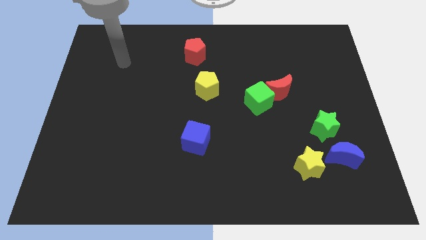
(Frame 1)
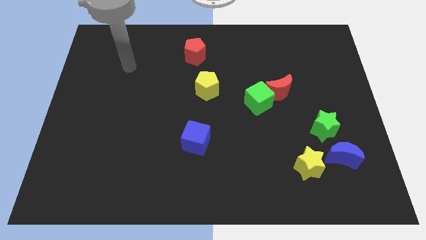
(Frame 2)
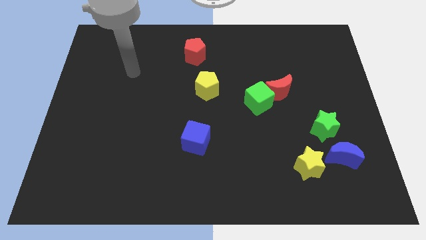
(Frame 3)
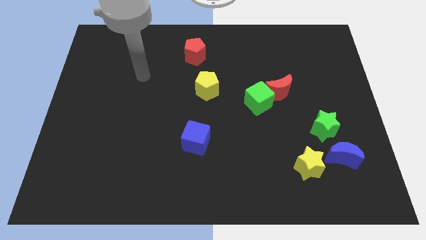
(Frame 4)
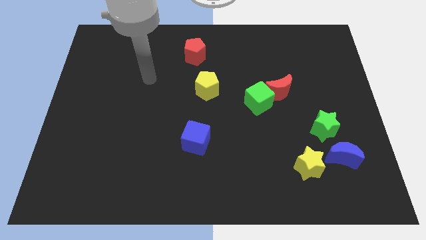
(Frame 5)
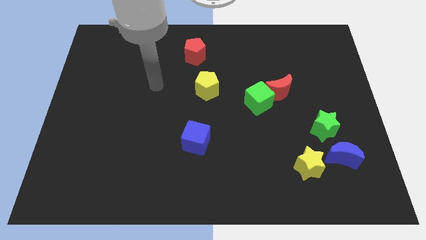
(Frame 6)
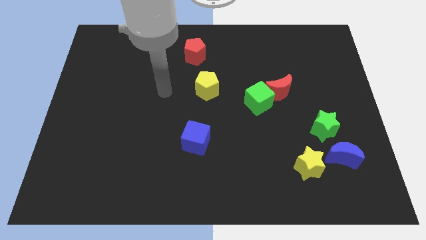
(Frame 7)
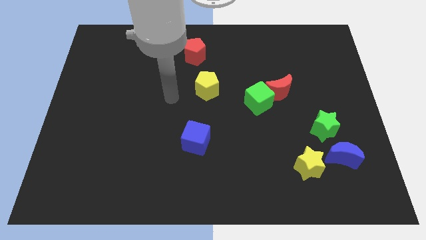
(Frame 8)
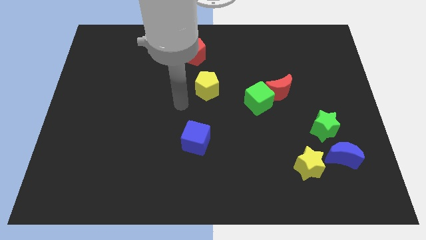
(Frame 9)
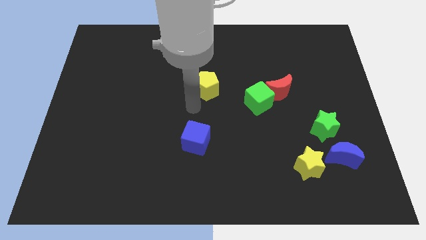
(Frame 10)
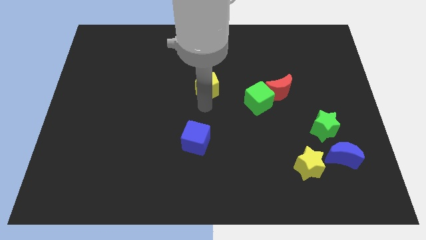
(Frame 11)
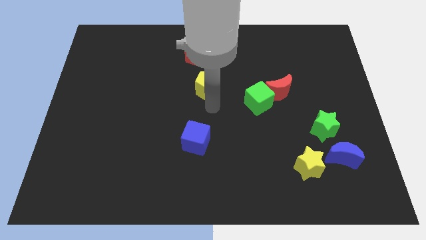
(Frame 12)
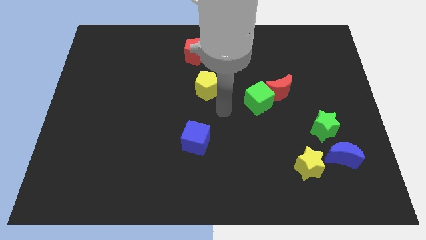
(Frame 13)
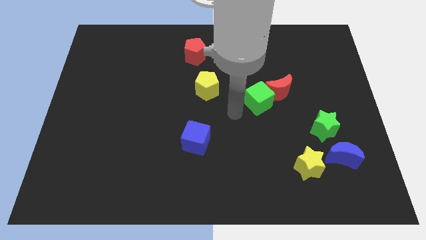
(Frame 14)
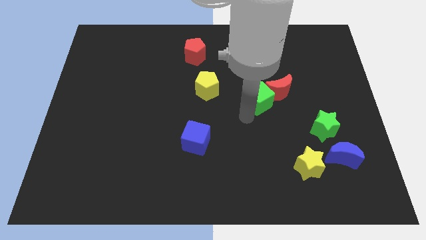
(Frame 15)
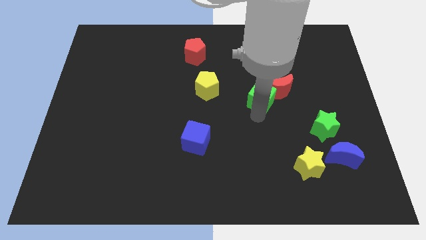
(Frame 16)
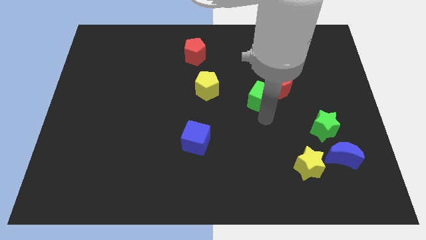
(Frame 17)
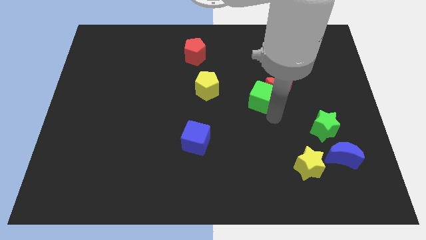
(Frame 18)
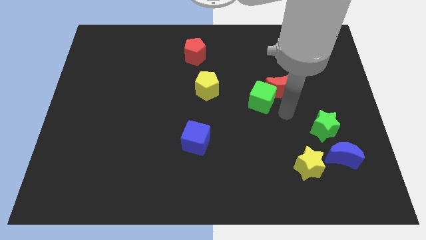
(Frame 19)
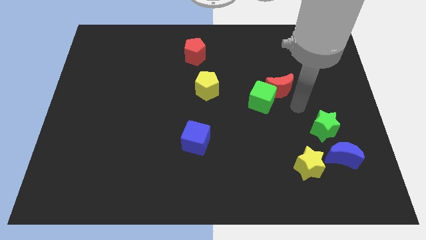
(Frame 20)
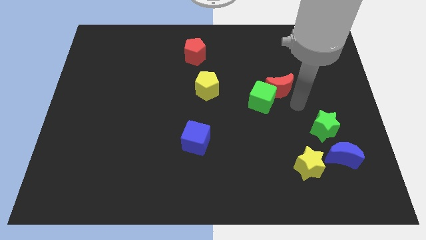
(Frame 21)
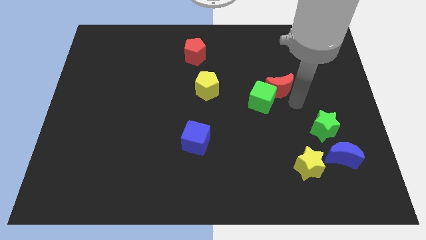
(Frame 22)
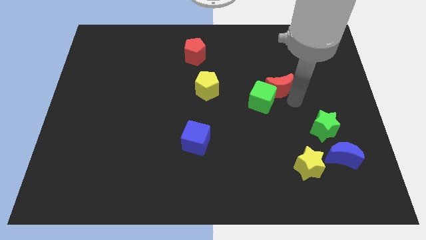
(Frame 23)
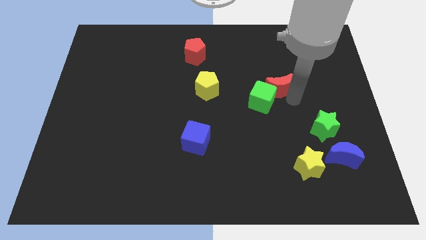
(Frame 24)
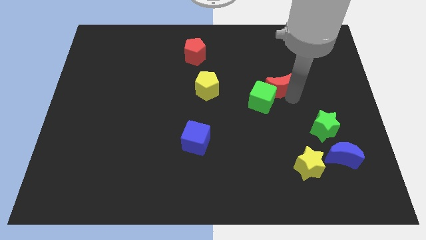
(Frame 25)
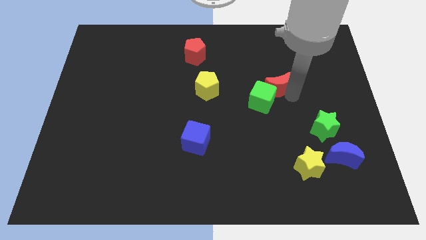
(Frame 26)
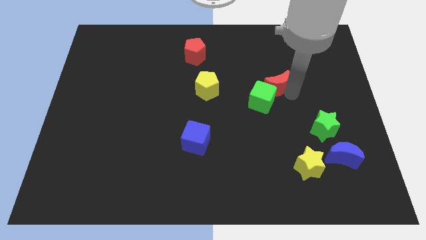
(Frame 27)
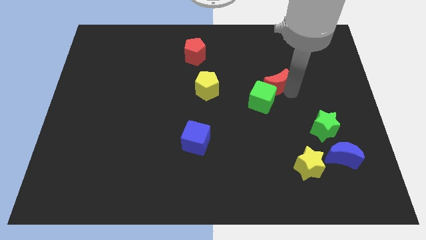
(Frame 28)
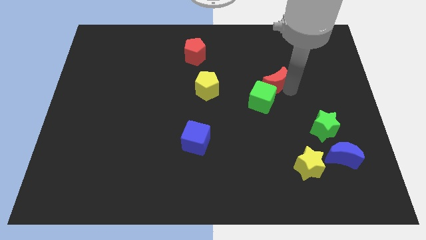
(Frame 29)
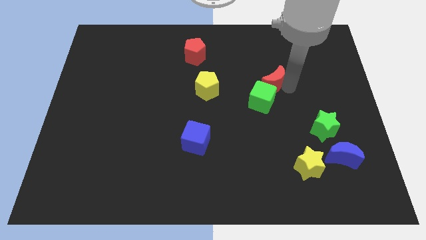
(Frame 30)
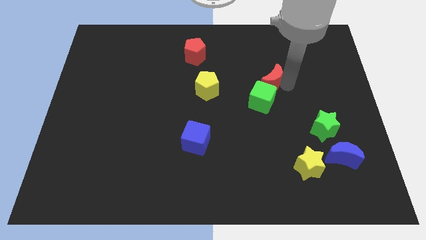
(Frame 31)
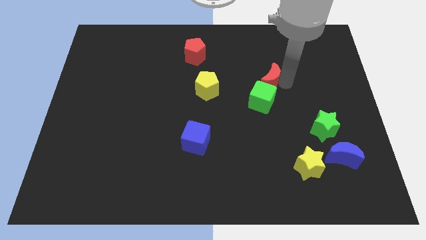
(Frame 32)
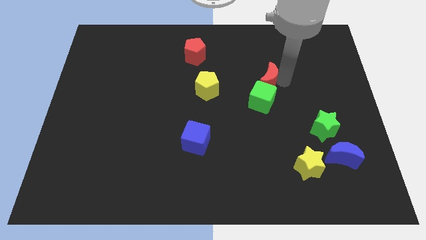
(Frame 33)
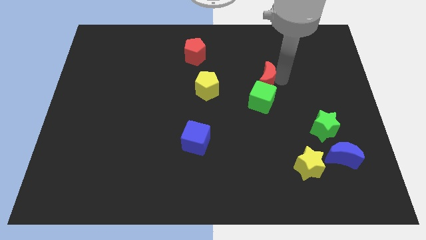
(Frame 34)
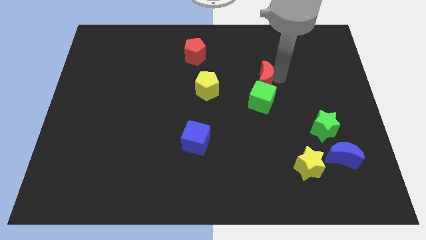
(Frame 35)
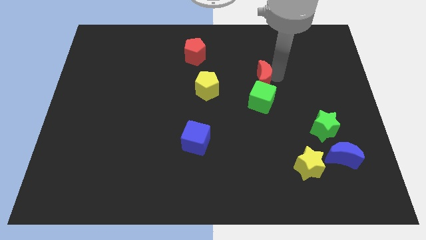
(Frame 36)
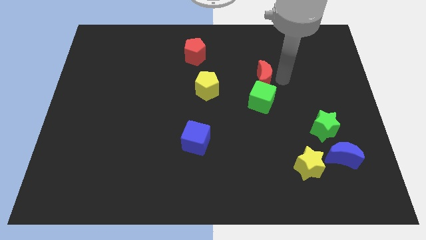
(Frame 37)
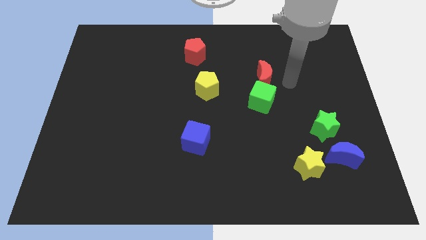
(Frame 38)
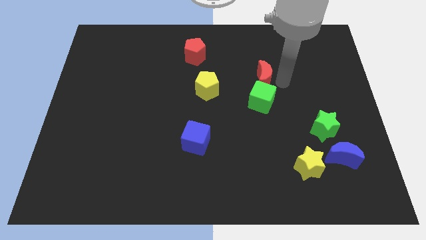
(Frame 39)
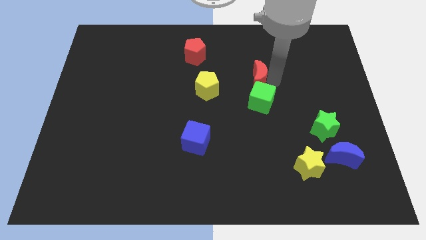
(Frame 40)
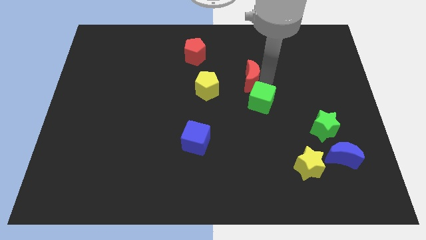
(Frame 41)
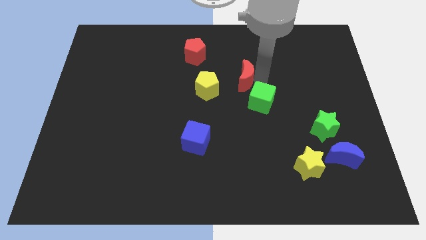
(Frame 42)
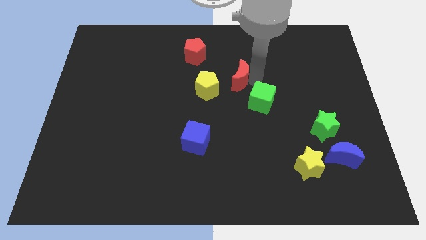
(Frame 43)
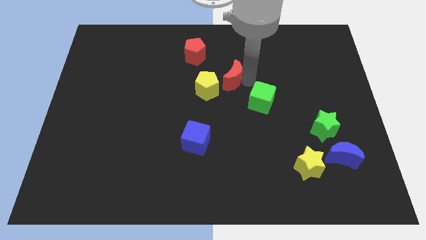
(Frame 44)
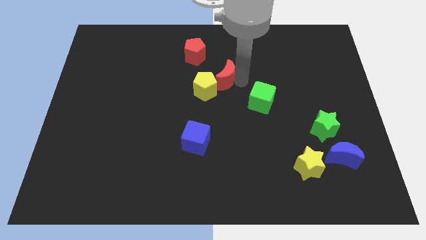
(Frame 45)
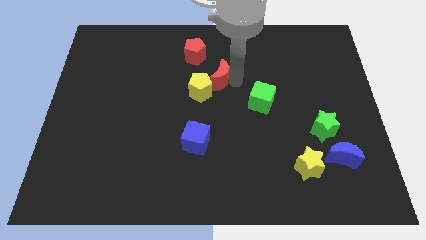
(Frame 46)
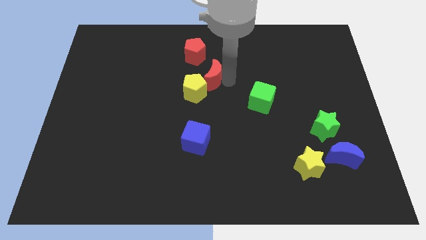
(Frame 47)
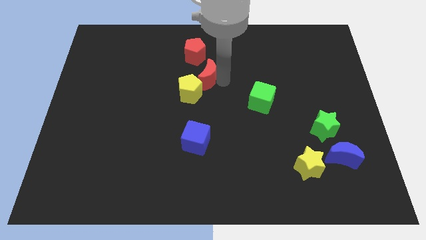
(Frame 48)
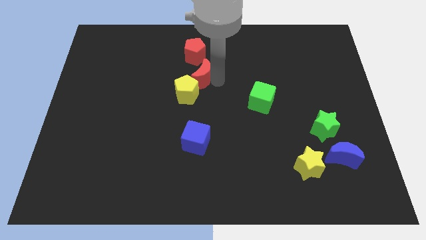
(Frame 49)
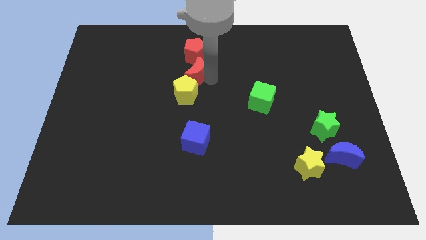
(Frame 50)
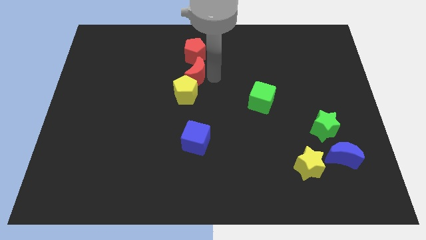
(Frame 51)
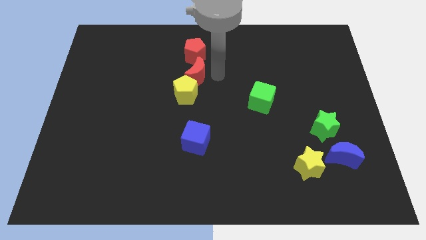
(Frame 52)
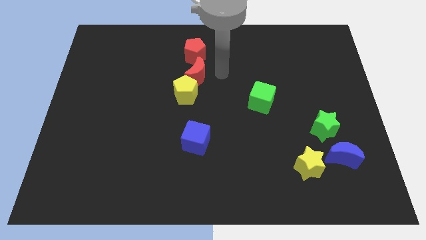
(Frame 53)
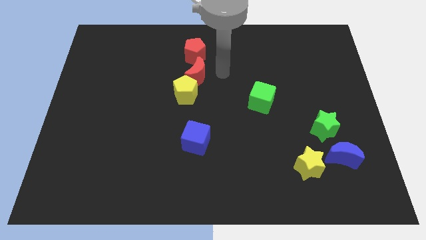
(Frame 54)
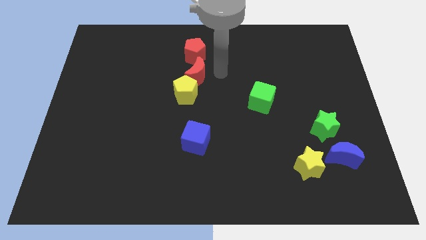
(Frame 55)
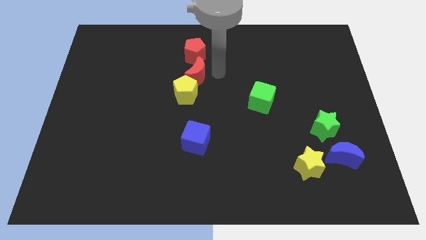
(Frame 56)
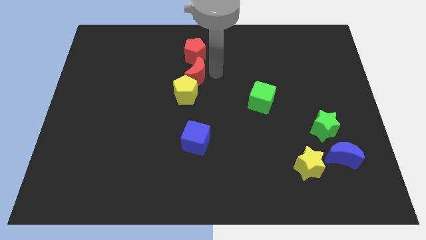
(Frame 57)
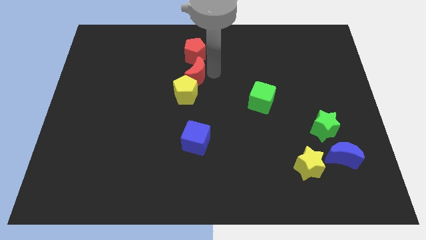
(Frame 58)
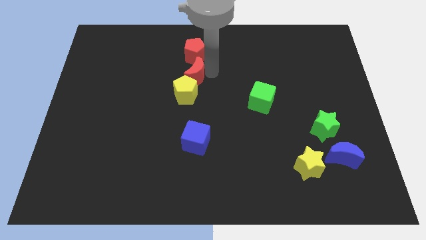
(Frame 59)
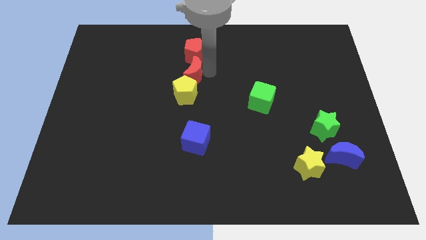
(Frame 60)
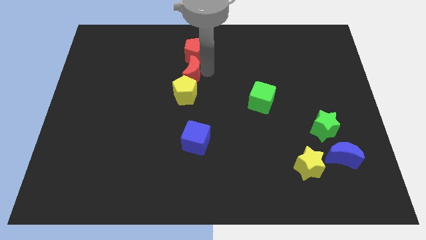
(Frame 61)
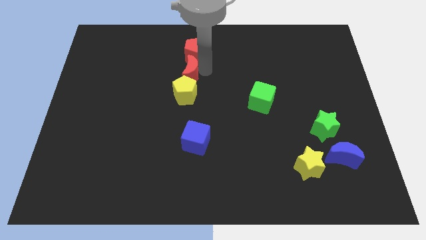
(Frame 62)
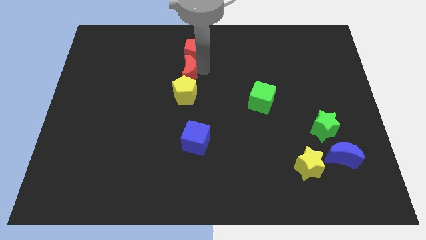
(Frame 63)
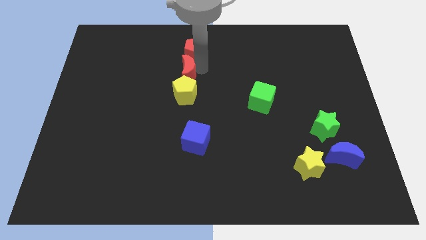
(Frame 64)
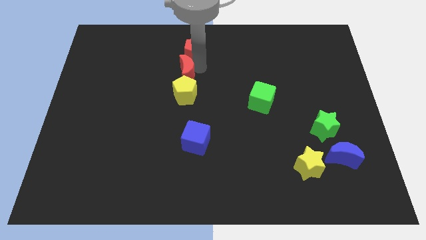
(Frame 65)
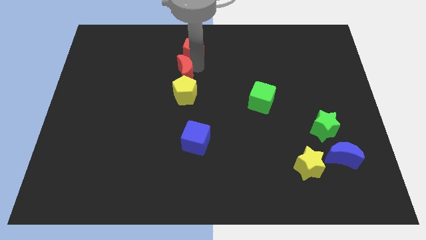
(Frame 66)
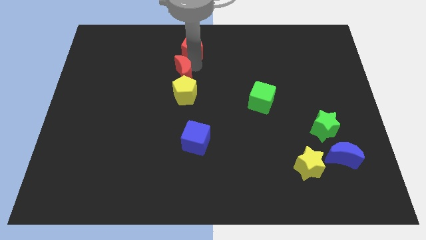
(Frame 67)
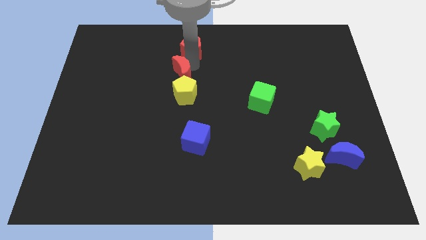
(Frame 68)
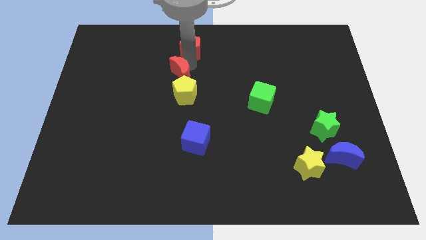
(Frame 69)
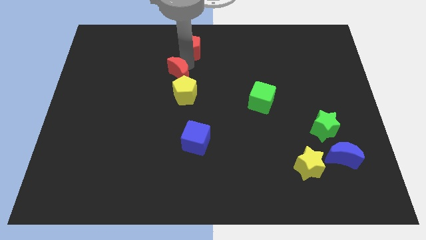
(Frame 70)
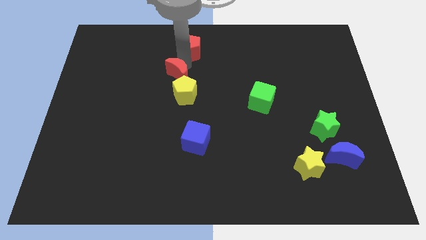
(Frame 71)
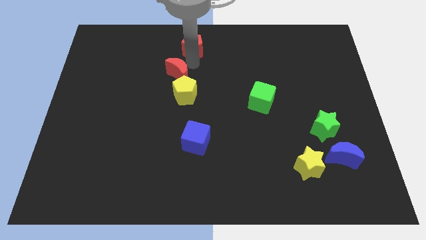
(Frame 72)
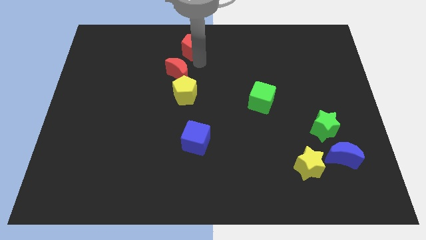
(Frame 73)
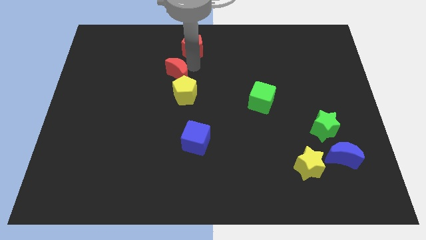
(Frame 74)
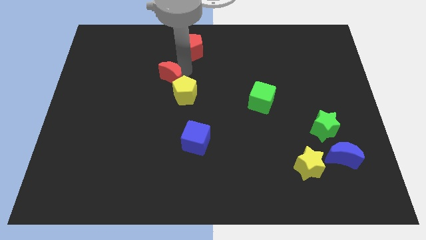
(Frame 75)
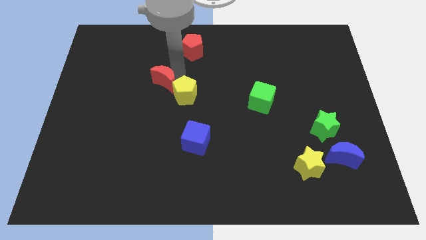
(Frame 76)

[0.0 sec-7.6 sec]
move the red moon to the left of the yellow pentagon
